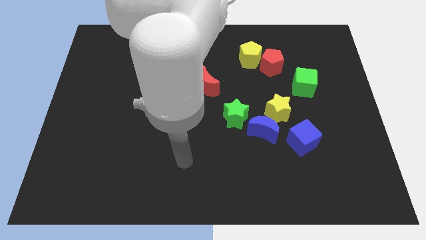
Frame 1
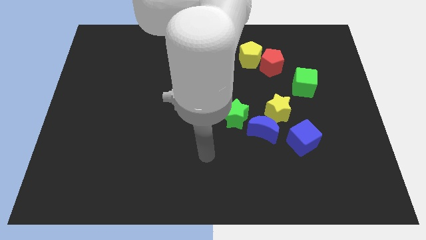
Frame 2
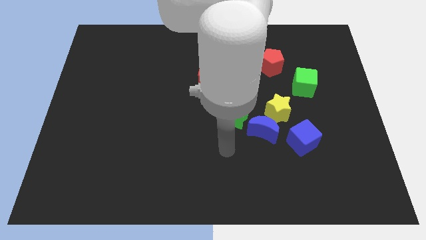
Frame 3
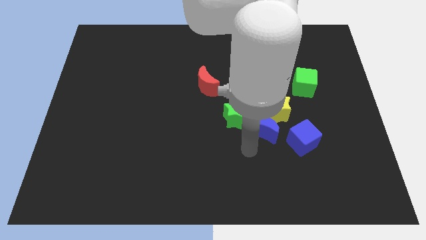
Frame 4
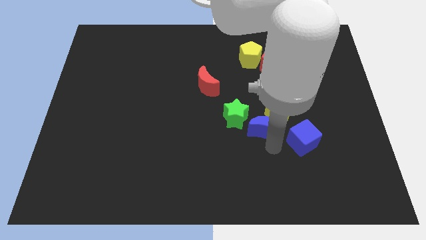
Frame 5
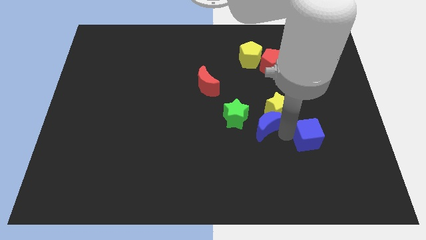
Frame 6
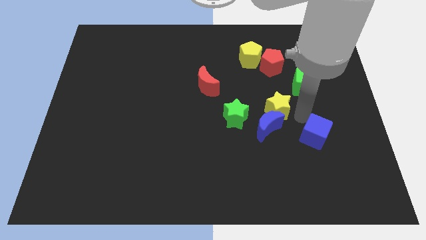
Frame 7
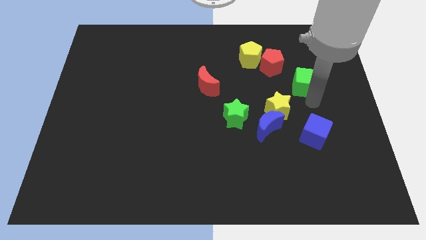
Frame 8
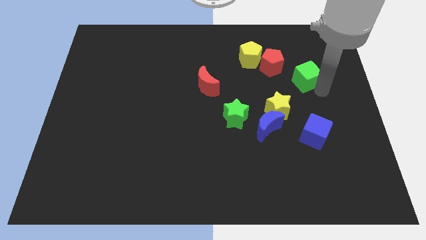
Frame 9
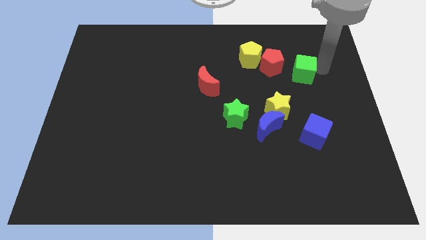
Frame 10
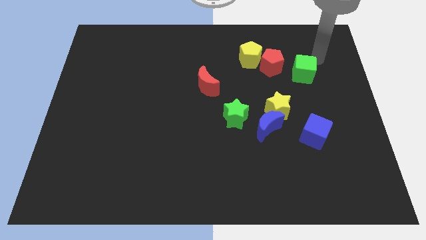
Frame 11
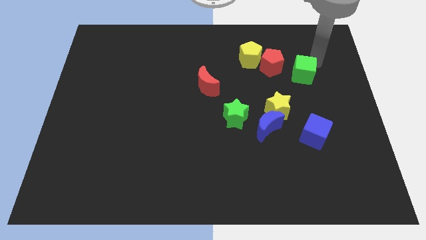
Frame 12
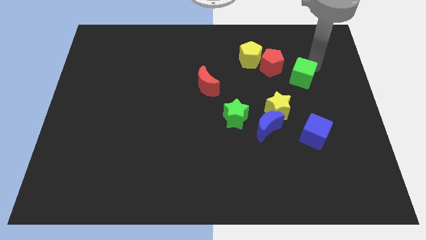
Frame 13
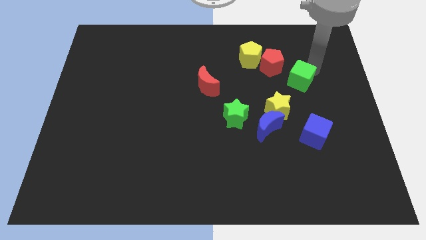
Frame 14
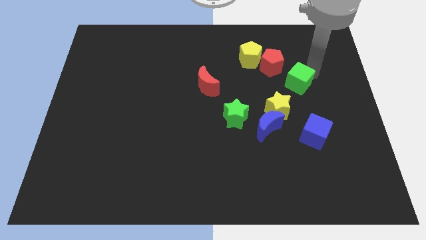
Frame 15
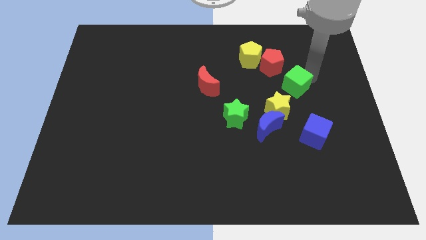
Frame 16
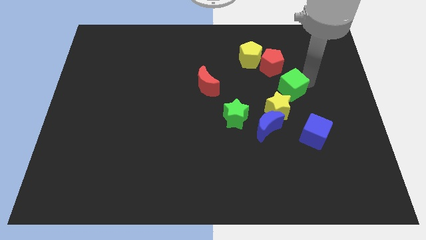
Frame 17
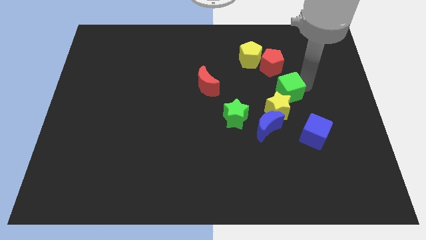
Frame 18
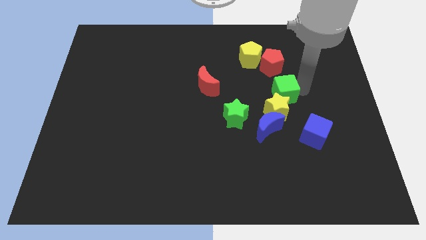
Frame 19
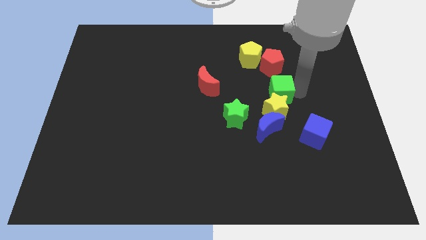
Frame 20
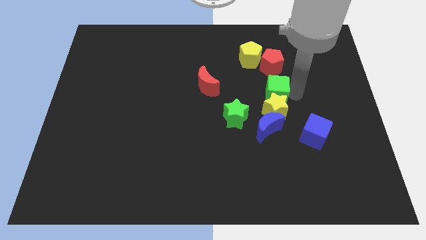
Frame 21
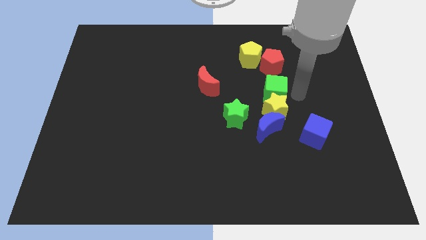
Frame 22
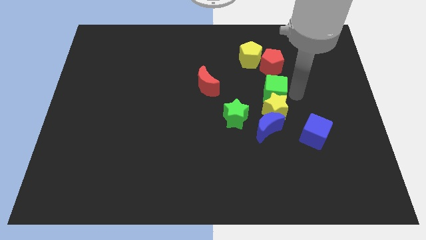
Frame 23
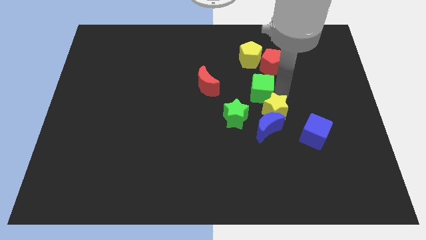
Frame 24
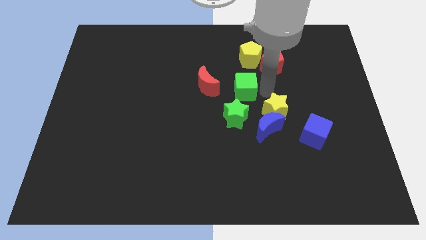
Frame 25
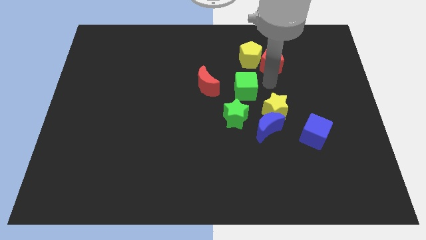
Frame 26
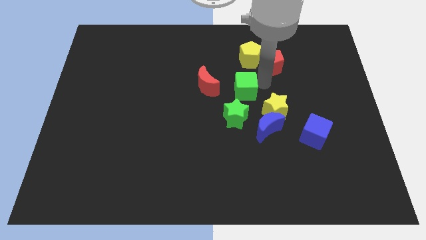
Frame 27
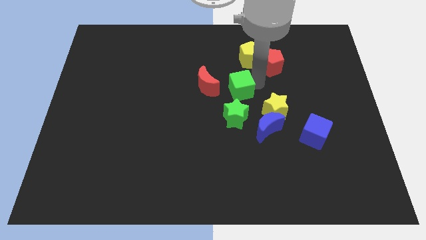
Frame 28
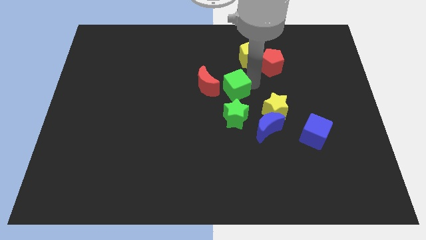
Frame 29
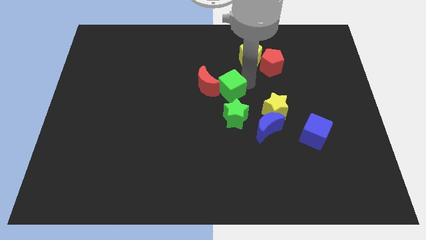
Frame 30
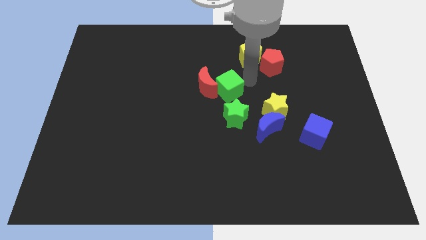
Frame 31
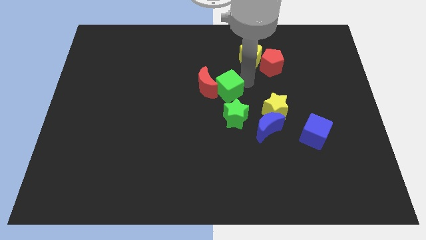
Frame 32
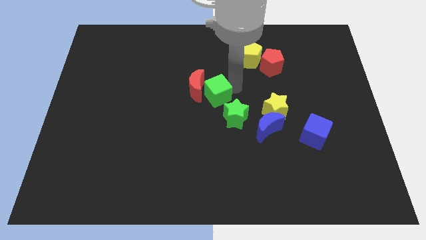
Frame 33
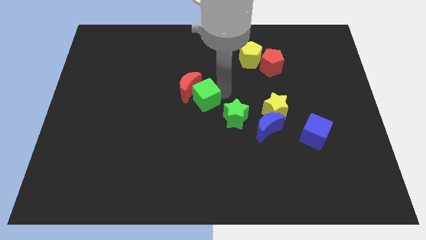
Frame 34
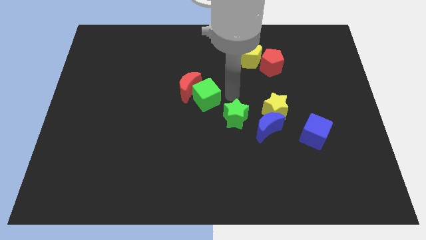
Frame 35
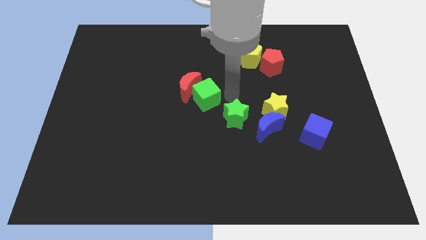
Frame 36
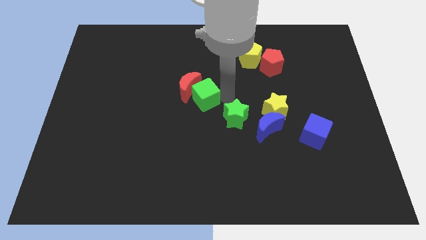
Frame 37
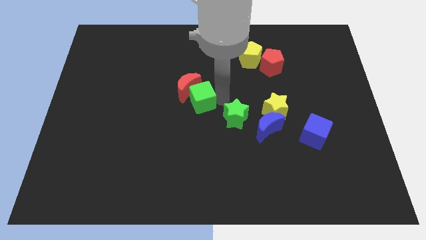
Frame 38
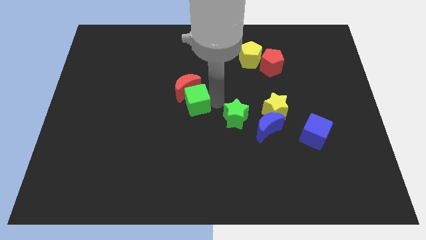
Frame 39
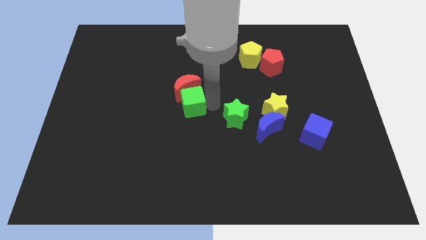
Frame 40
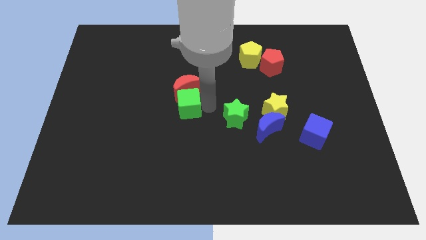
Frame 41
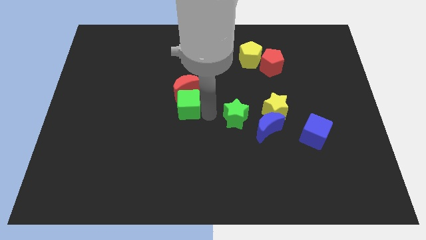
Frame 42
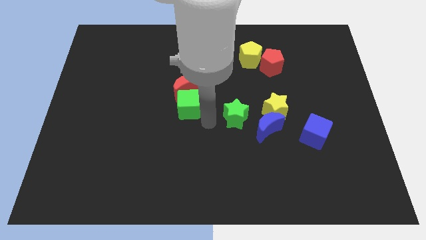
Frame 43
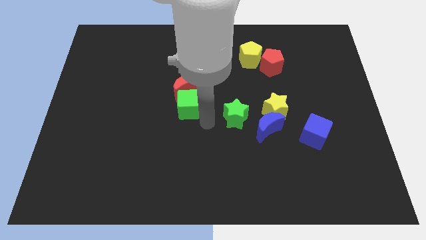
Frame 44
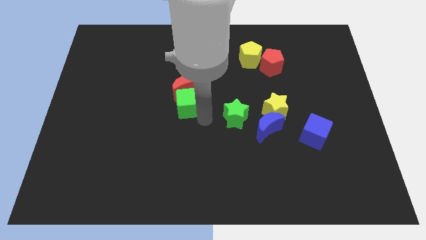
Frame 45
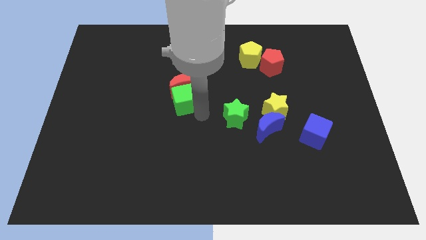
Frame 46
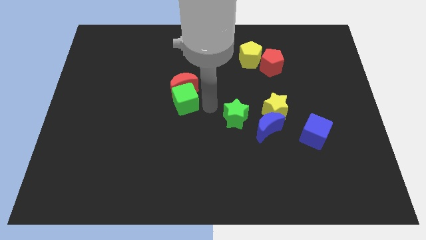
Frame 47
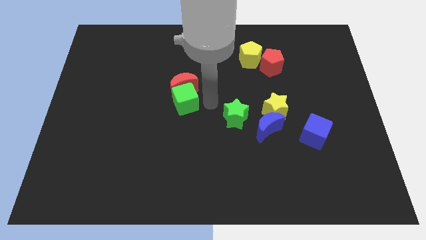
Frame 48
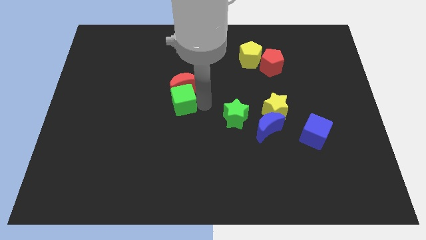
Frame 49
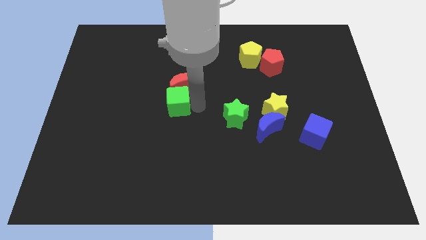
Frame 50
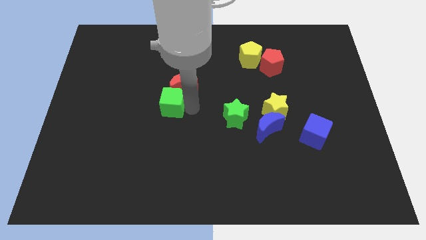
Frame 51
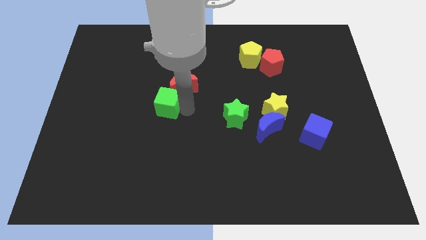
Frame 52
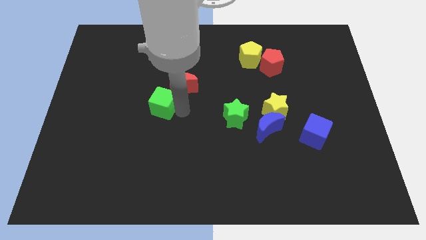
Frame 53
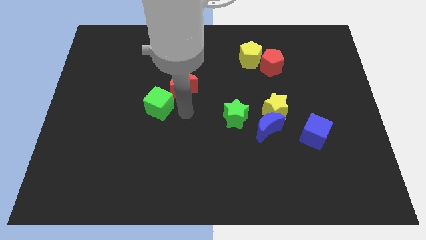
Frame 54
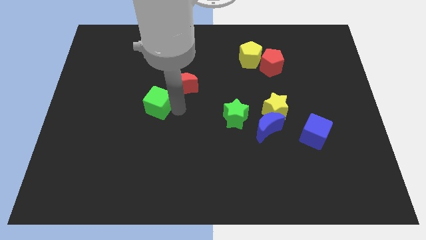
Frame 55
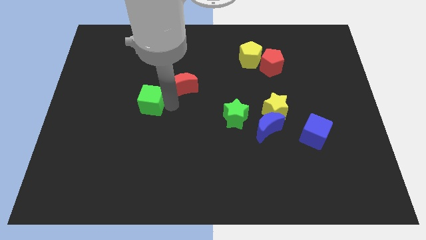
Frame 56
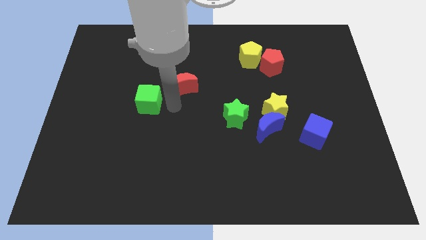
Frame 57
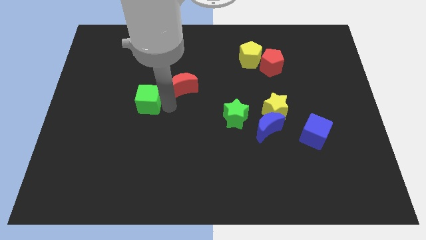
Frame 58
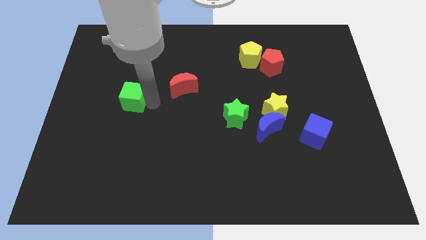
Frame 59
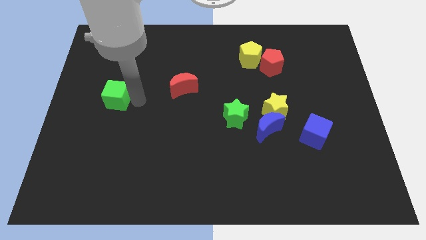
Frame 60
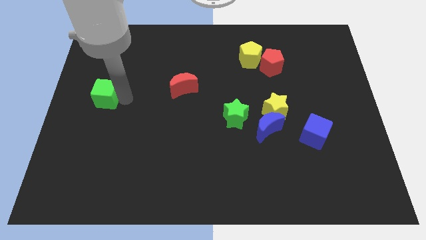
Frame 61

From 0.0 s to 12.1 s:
move the green cube to the left side

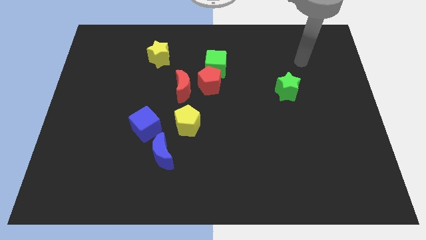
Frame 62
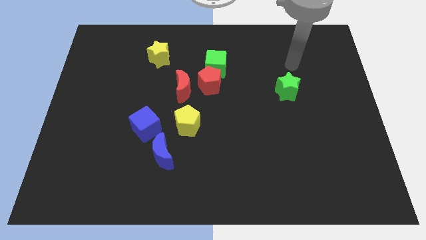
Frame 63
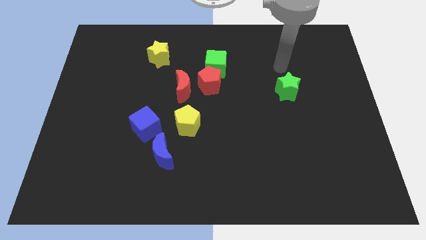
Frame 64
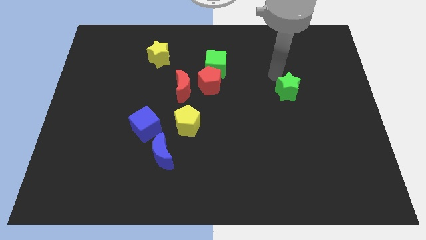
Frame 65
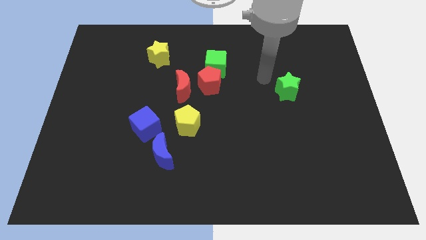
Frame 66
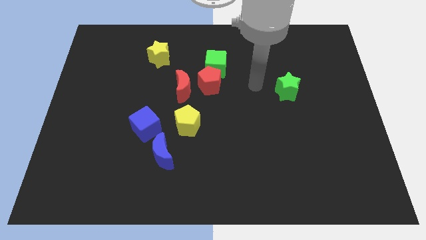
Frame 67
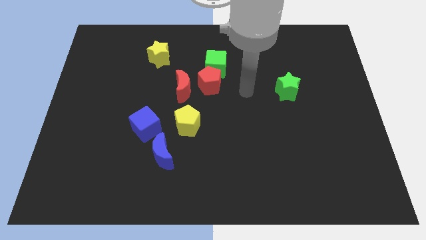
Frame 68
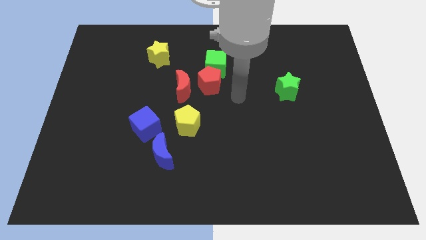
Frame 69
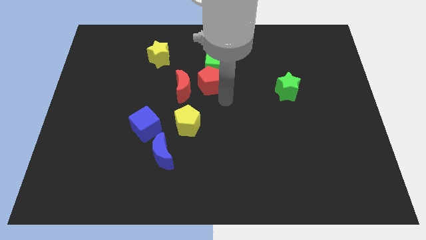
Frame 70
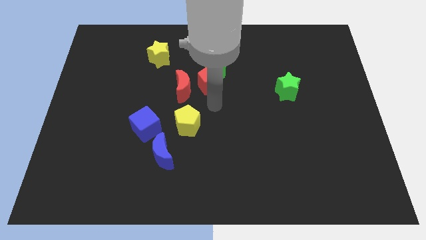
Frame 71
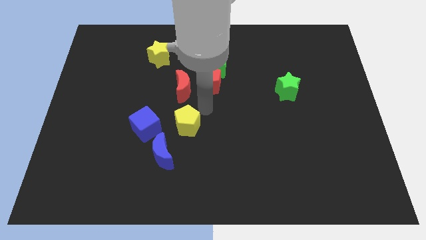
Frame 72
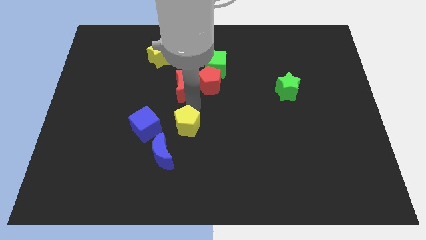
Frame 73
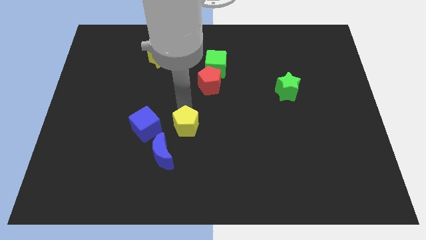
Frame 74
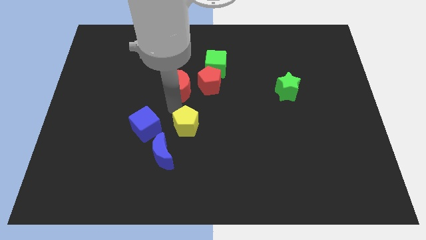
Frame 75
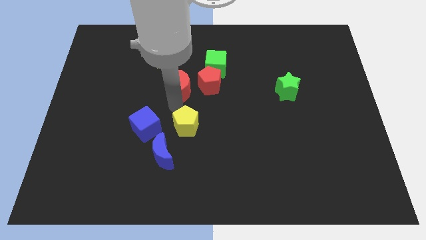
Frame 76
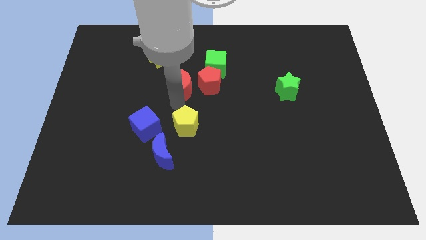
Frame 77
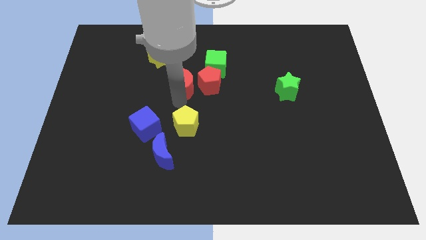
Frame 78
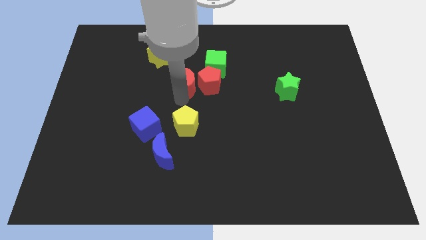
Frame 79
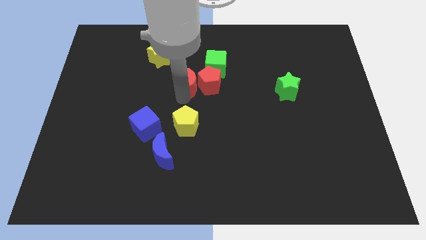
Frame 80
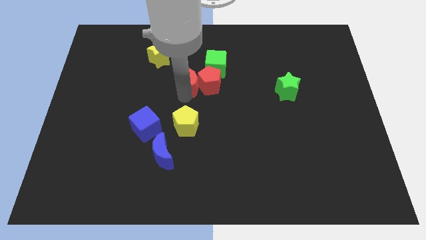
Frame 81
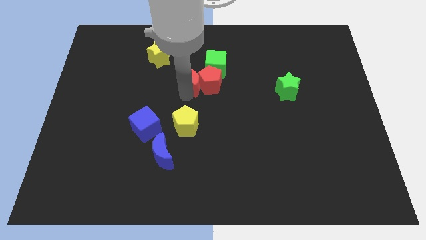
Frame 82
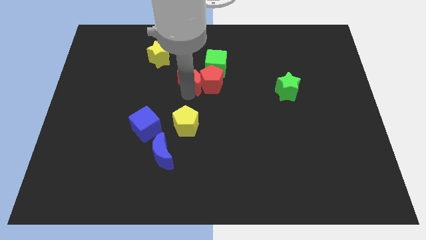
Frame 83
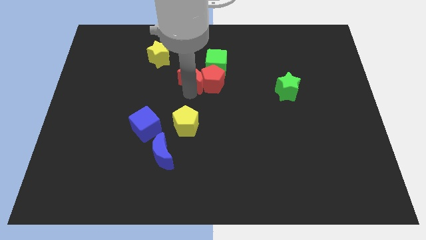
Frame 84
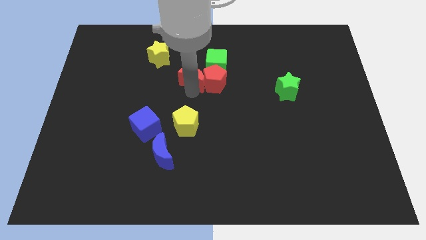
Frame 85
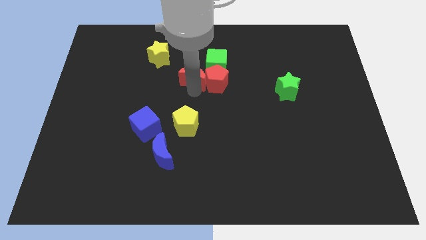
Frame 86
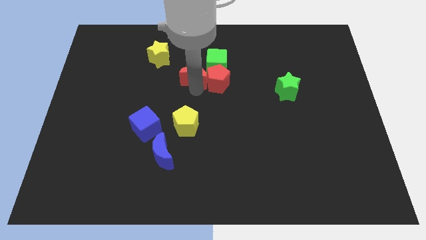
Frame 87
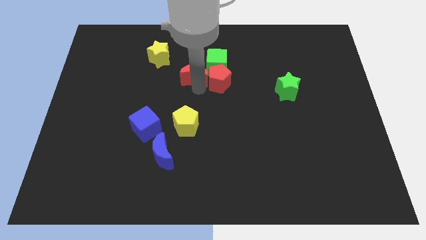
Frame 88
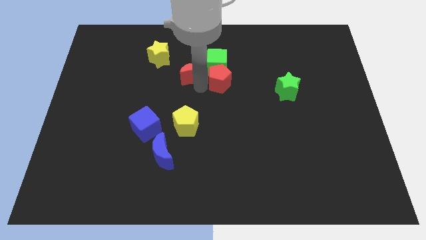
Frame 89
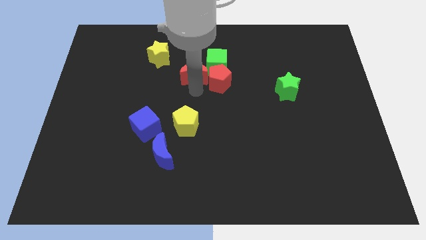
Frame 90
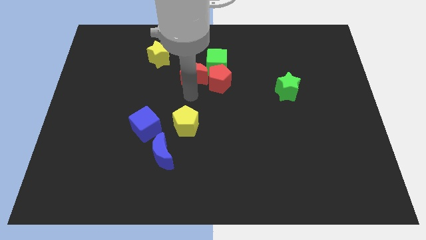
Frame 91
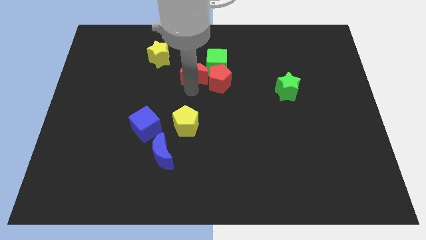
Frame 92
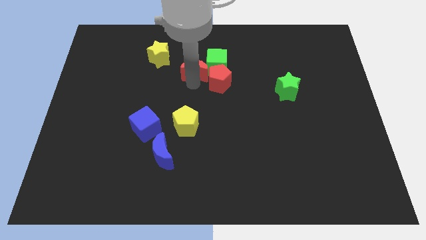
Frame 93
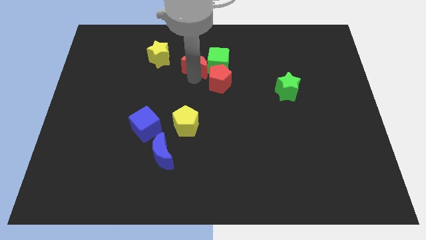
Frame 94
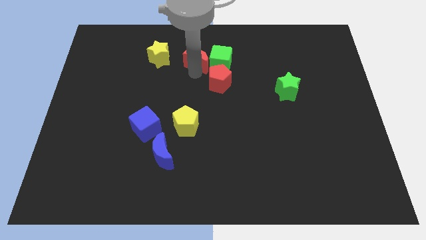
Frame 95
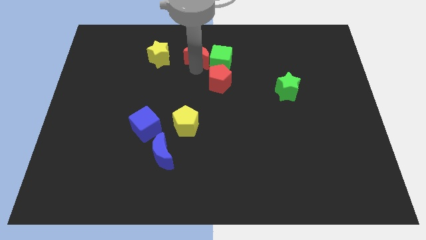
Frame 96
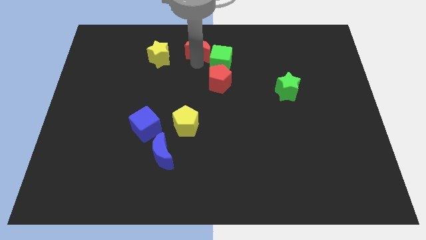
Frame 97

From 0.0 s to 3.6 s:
slide the red moon to the top side
